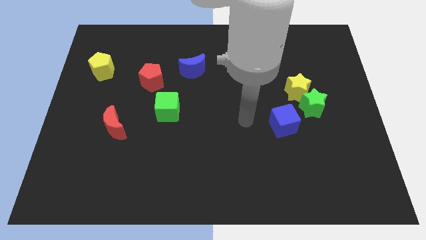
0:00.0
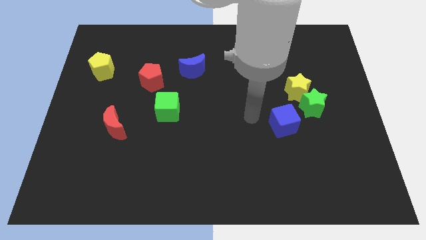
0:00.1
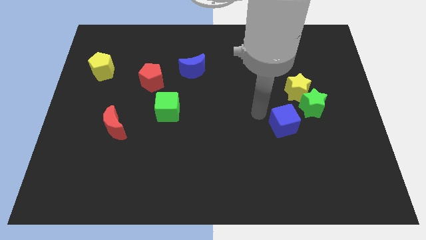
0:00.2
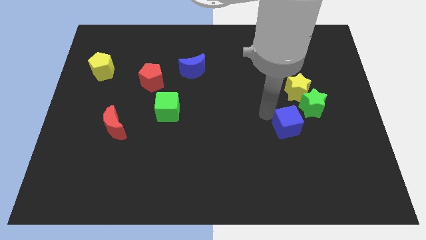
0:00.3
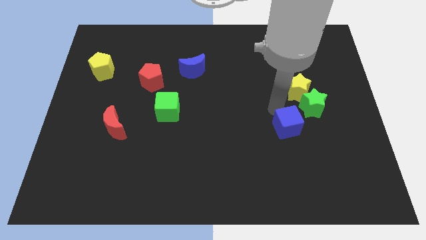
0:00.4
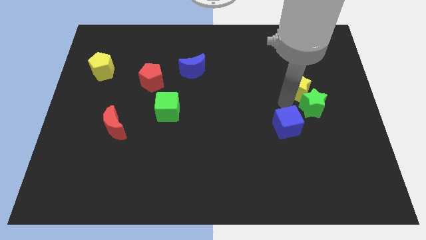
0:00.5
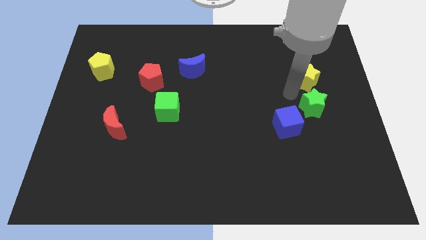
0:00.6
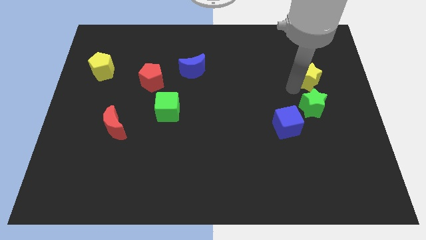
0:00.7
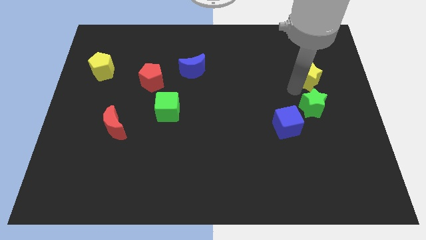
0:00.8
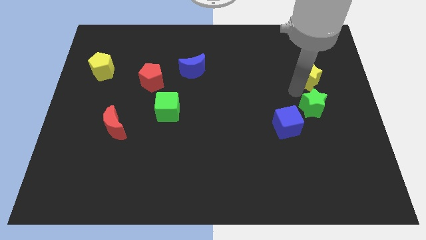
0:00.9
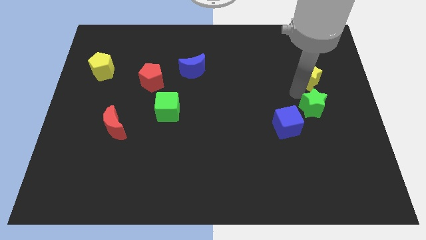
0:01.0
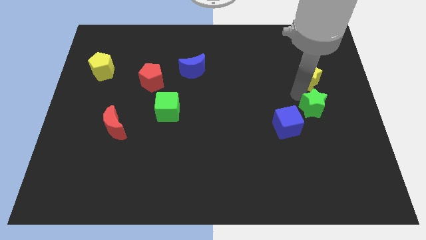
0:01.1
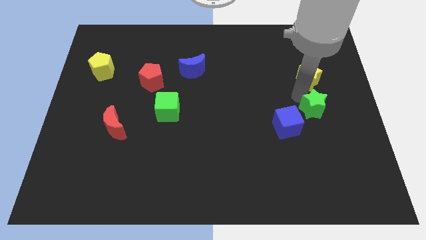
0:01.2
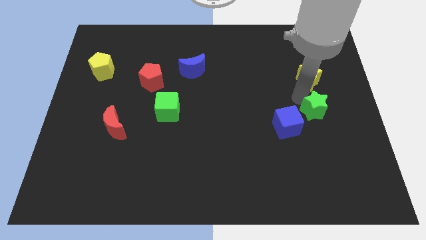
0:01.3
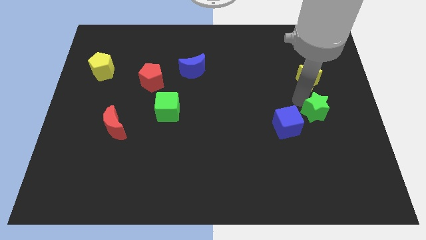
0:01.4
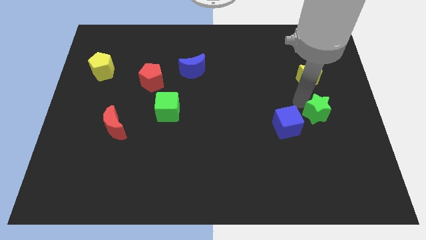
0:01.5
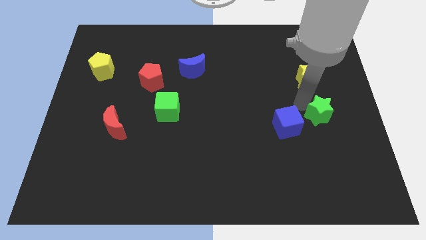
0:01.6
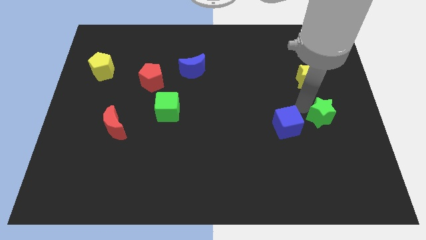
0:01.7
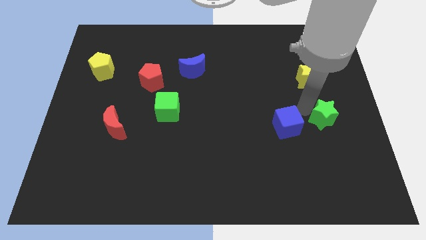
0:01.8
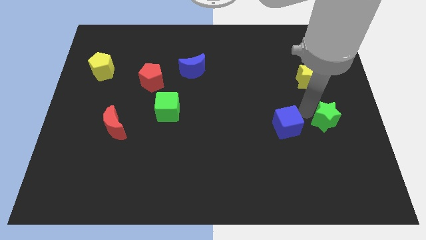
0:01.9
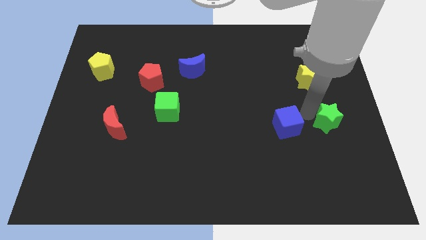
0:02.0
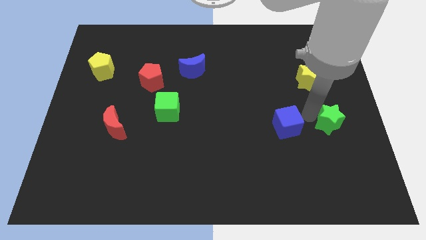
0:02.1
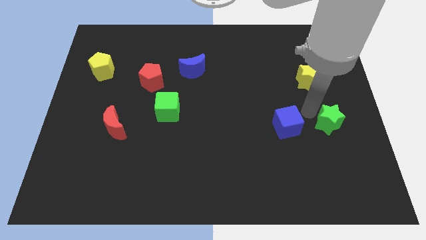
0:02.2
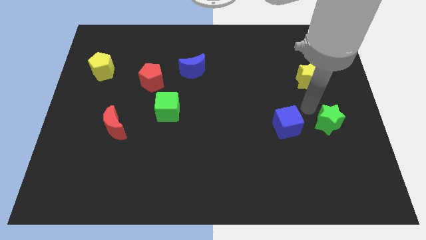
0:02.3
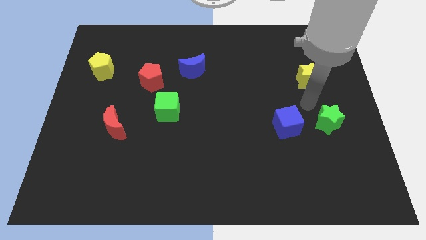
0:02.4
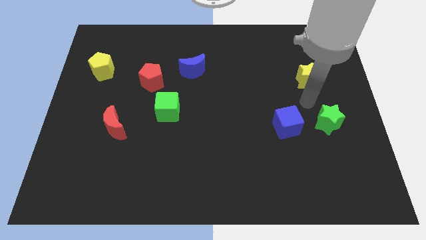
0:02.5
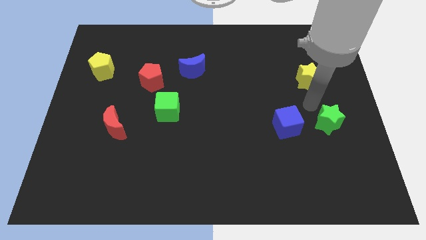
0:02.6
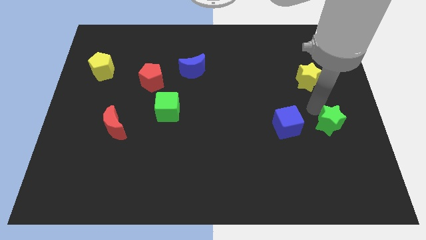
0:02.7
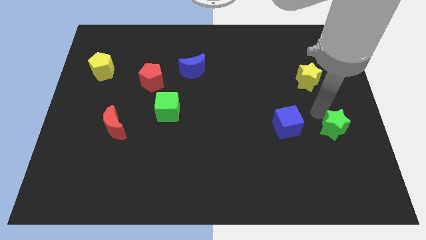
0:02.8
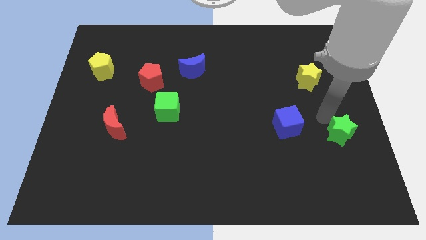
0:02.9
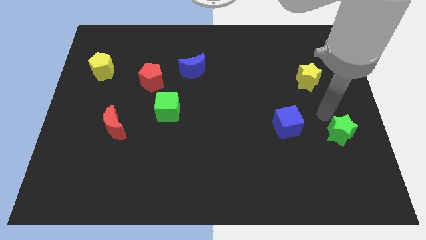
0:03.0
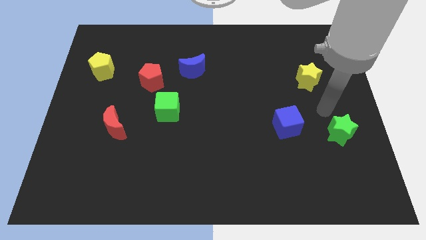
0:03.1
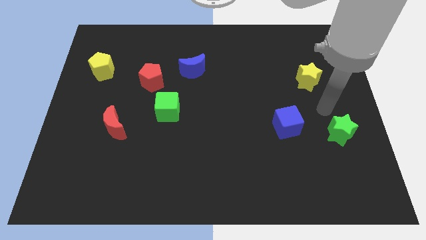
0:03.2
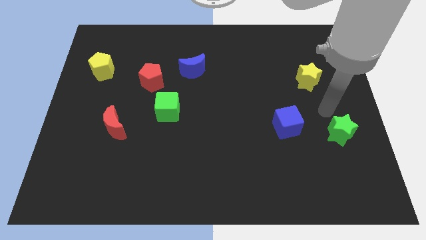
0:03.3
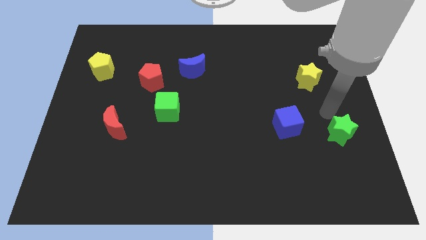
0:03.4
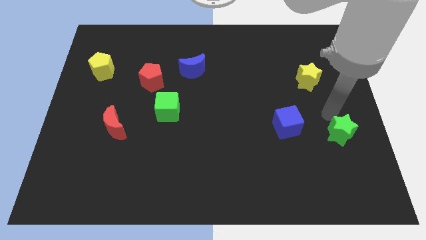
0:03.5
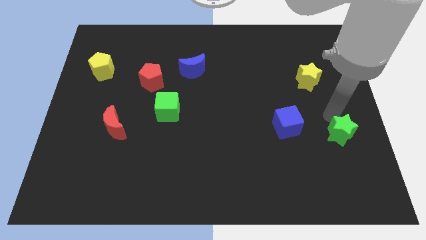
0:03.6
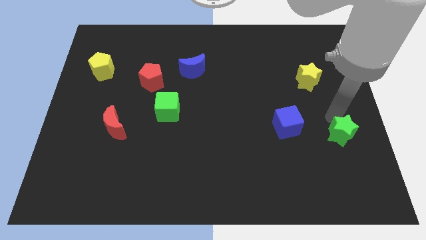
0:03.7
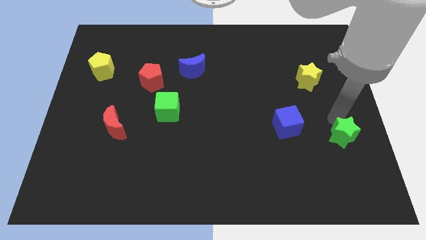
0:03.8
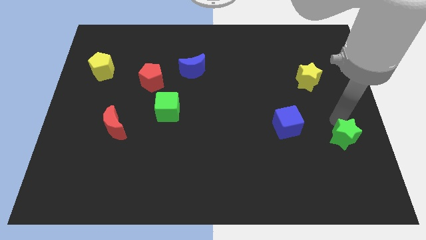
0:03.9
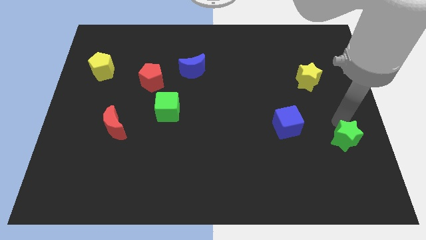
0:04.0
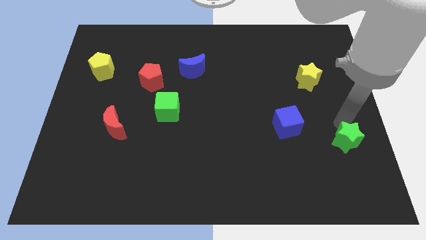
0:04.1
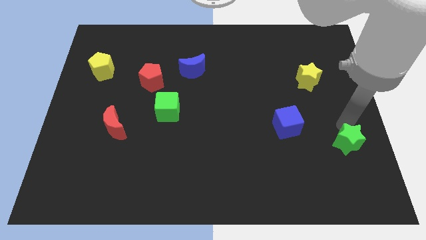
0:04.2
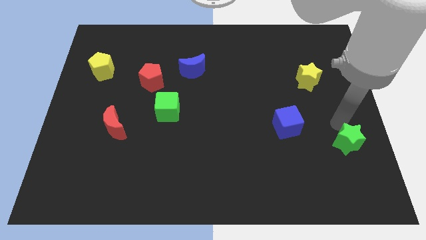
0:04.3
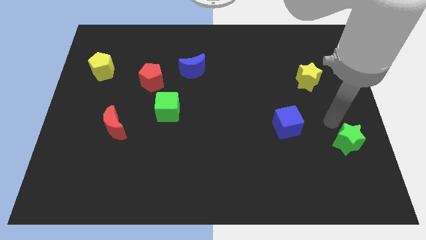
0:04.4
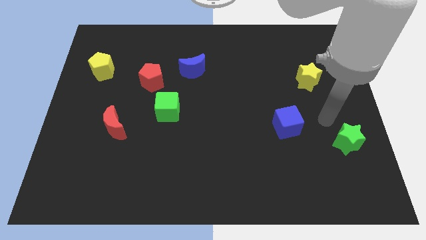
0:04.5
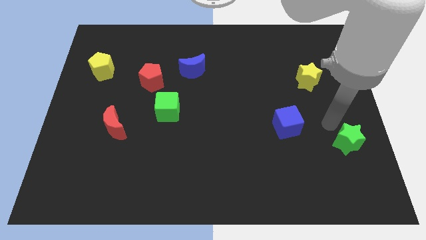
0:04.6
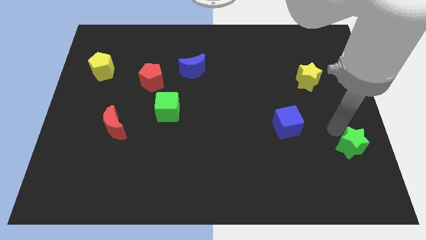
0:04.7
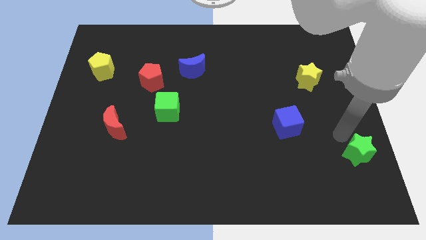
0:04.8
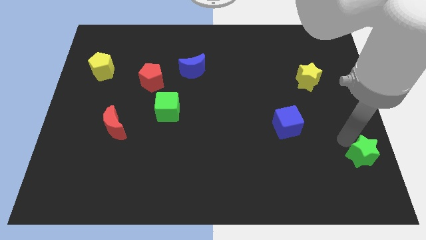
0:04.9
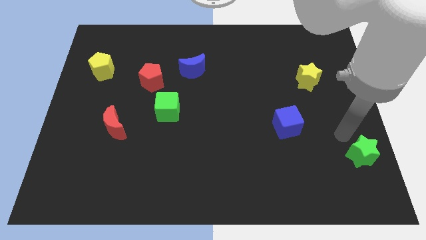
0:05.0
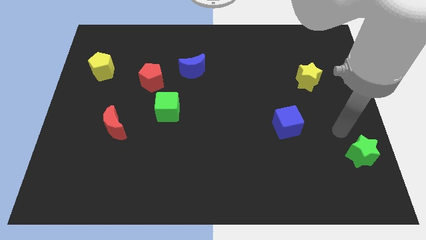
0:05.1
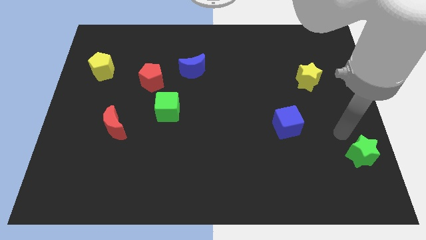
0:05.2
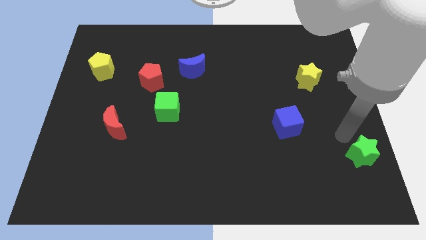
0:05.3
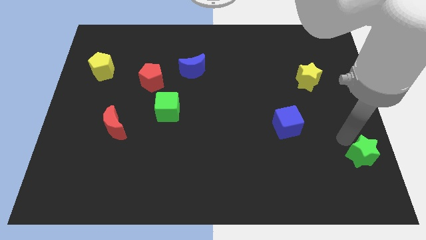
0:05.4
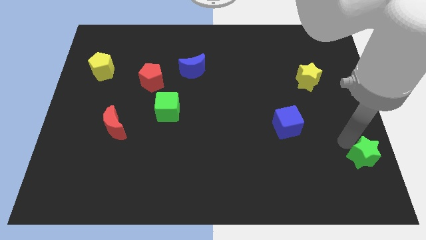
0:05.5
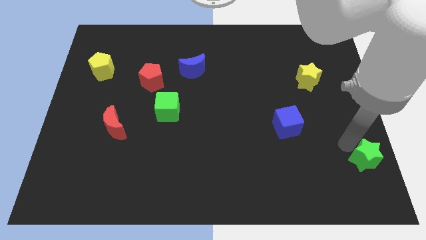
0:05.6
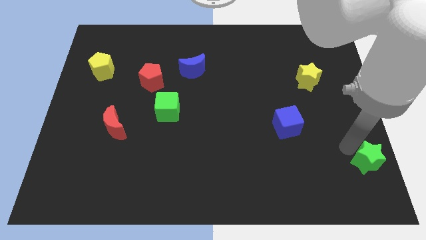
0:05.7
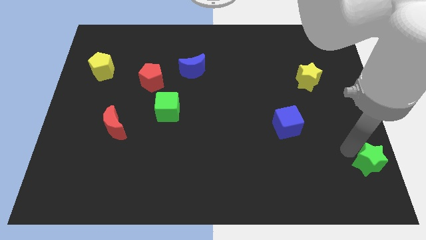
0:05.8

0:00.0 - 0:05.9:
put the green star to the bottom right of the board
